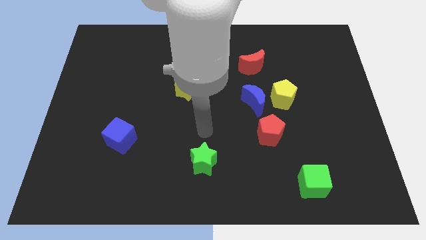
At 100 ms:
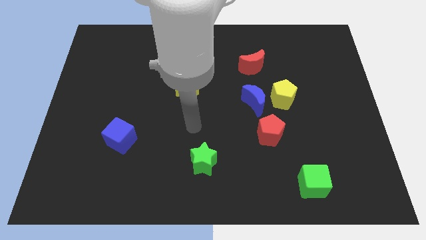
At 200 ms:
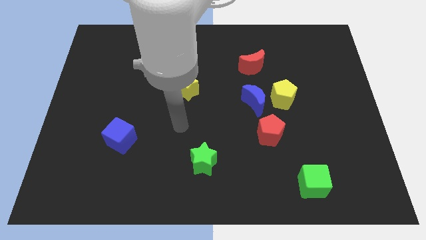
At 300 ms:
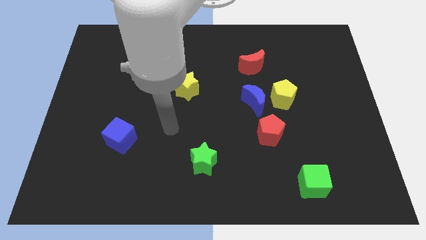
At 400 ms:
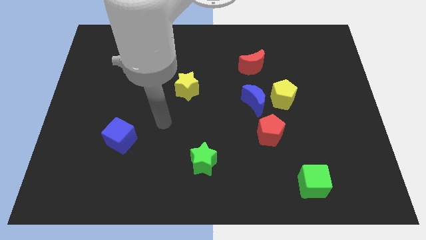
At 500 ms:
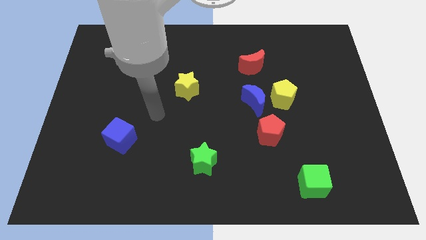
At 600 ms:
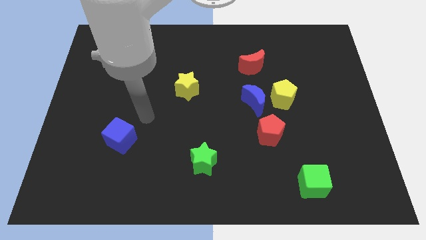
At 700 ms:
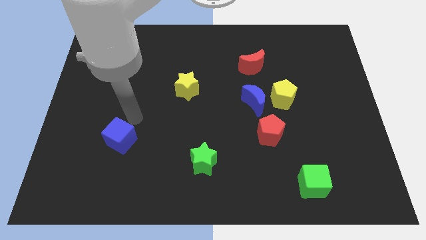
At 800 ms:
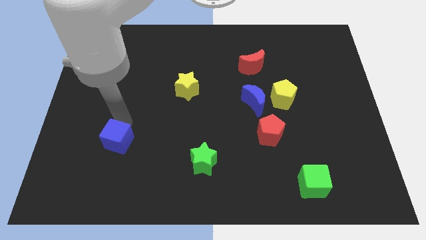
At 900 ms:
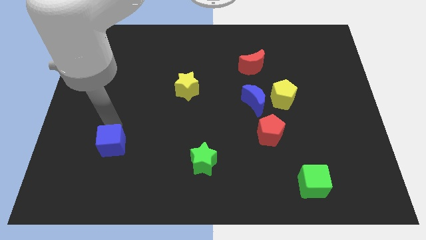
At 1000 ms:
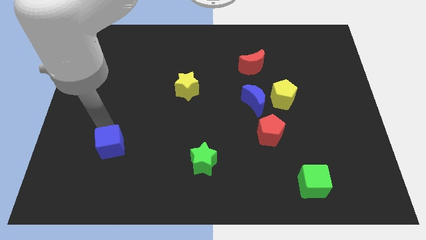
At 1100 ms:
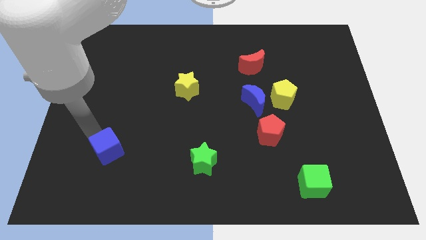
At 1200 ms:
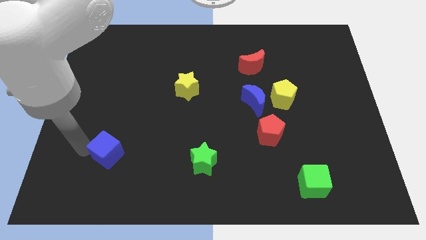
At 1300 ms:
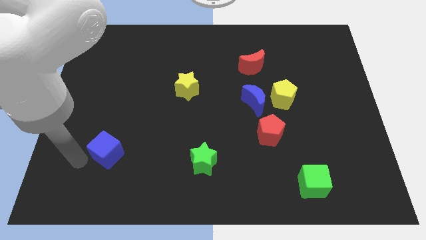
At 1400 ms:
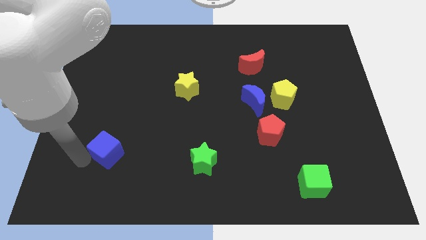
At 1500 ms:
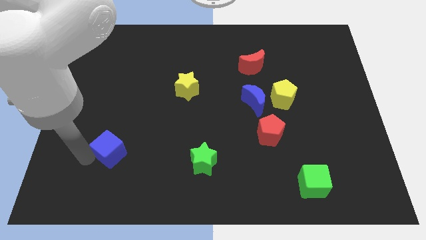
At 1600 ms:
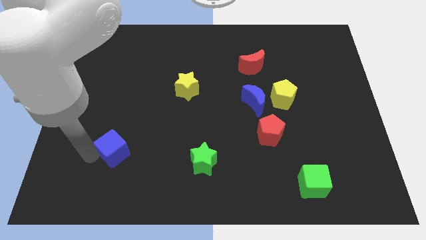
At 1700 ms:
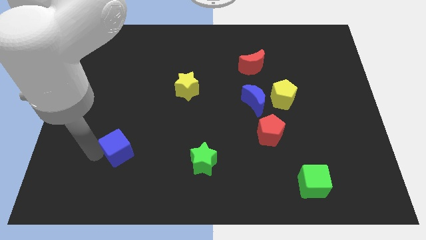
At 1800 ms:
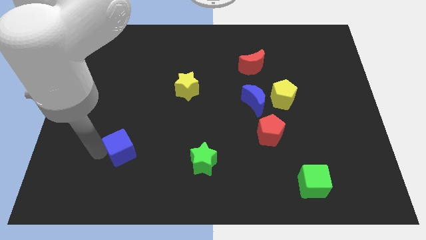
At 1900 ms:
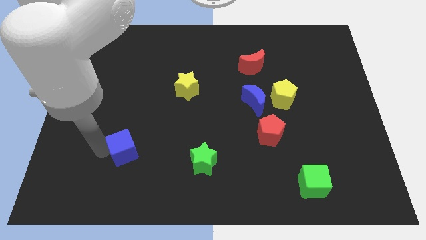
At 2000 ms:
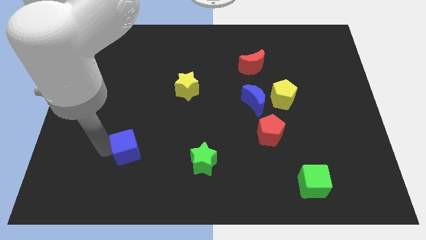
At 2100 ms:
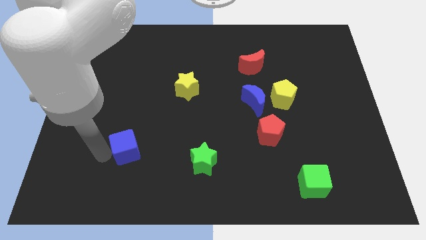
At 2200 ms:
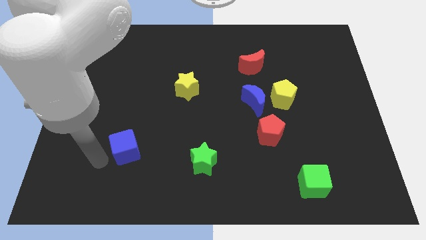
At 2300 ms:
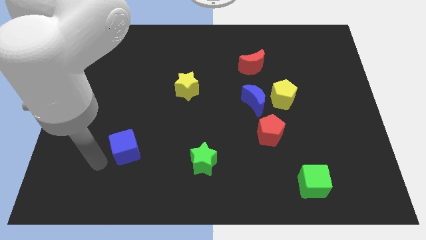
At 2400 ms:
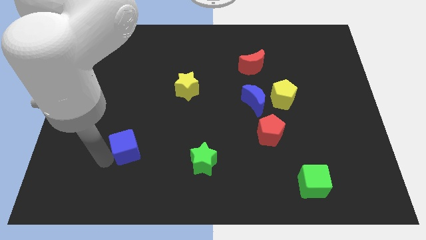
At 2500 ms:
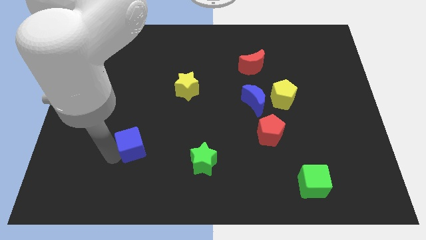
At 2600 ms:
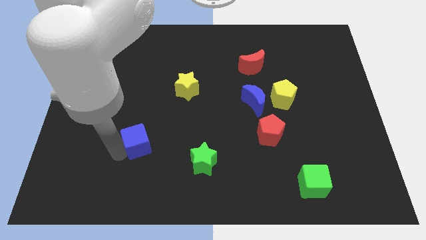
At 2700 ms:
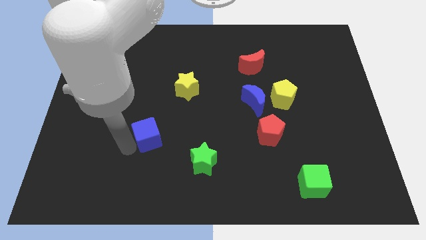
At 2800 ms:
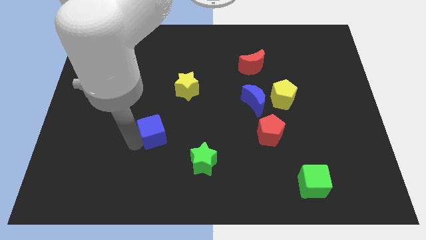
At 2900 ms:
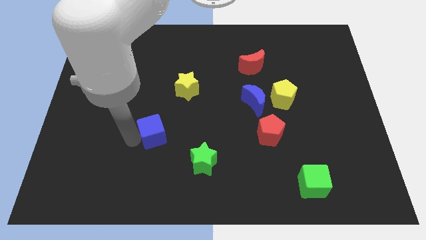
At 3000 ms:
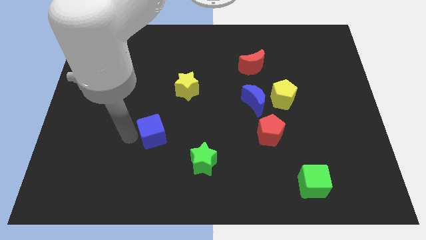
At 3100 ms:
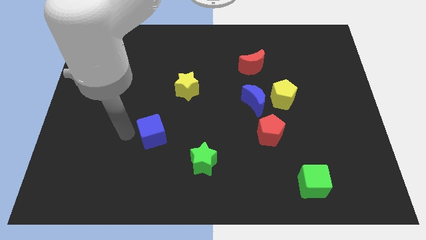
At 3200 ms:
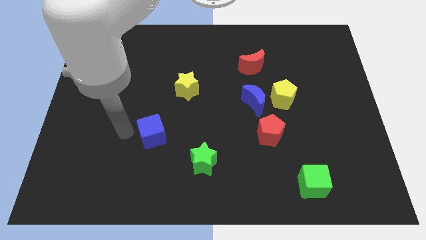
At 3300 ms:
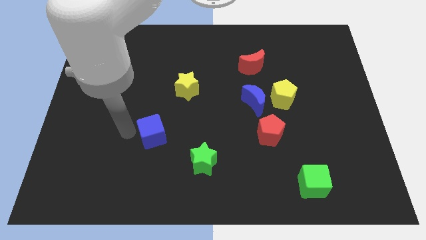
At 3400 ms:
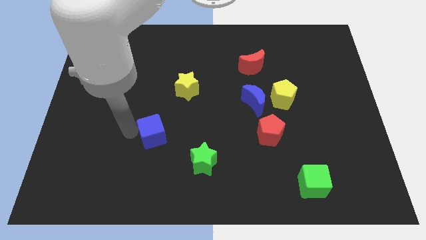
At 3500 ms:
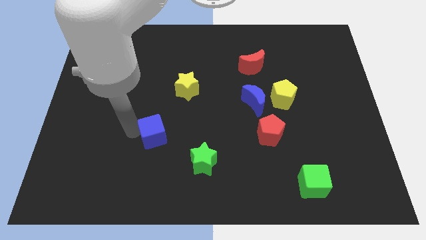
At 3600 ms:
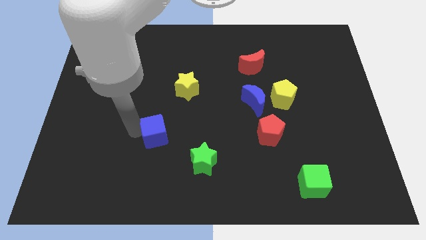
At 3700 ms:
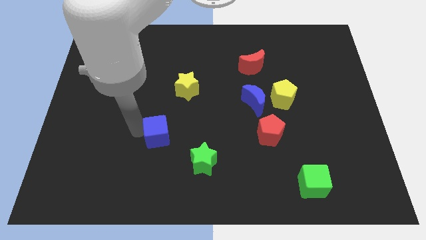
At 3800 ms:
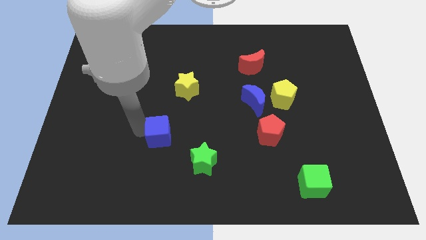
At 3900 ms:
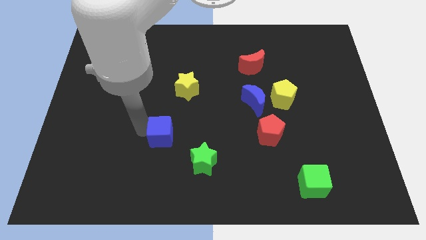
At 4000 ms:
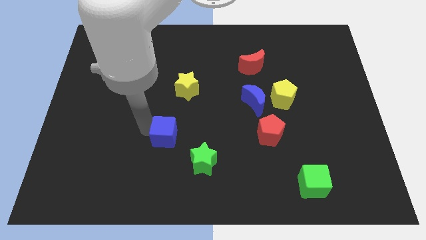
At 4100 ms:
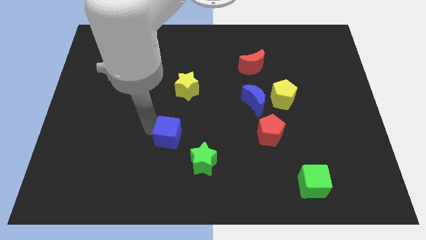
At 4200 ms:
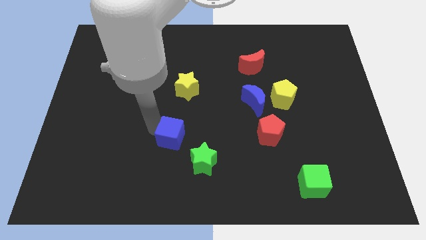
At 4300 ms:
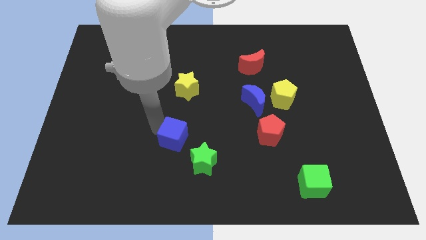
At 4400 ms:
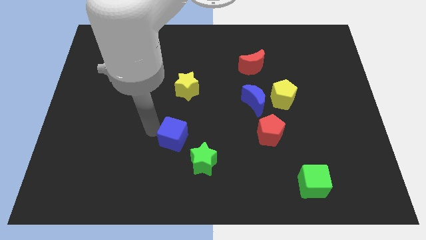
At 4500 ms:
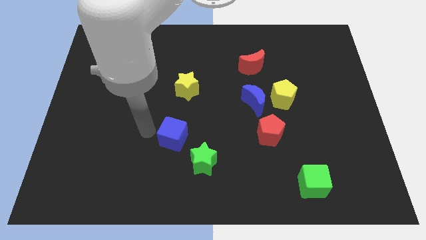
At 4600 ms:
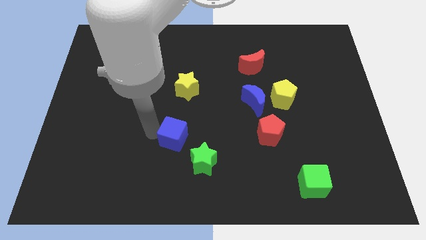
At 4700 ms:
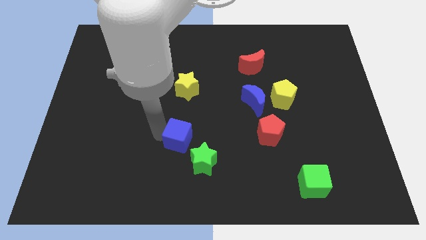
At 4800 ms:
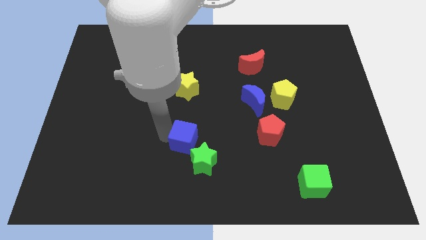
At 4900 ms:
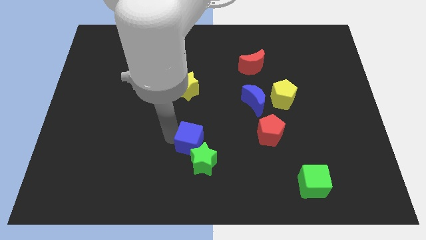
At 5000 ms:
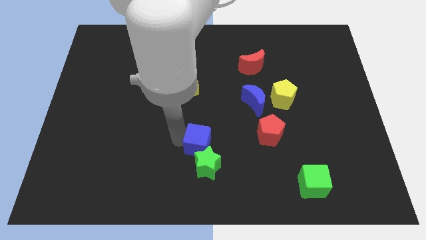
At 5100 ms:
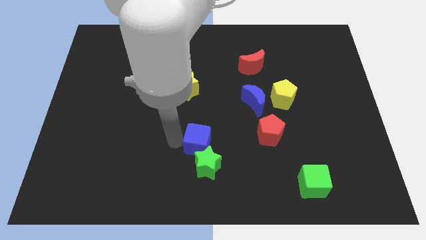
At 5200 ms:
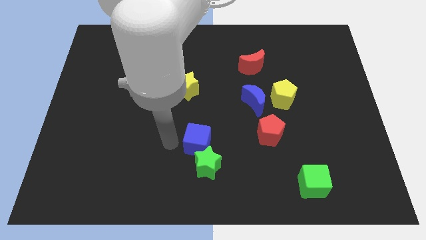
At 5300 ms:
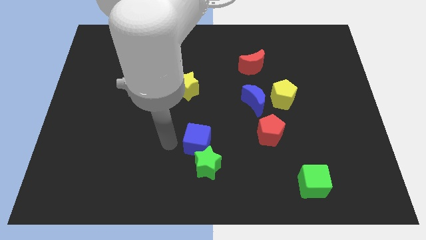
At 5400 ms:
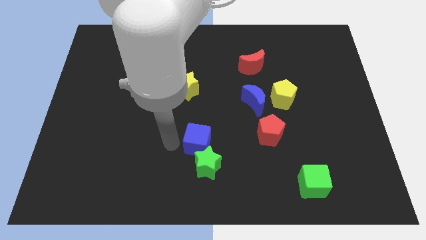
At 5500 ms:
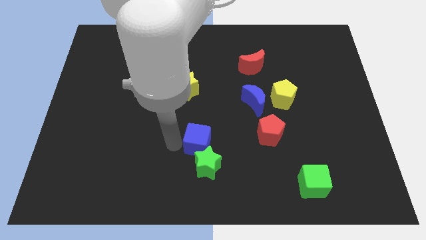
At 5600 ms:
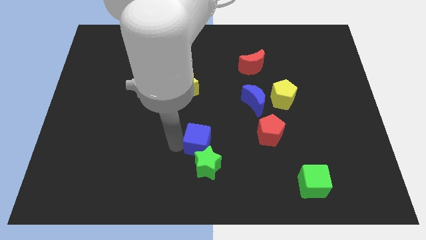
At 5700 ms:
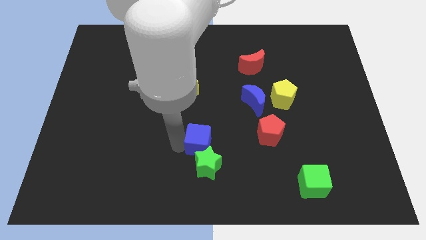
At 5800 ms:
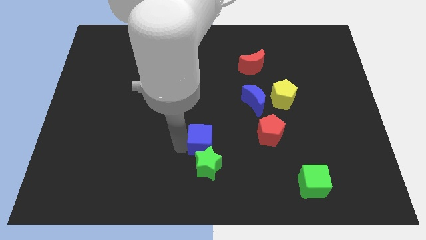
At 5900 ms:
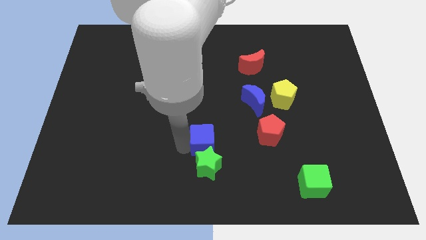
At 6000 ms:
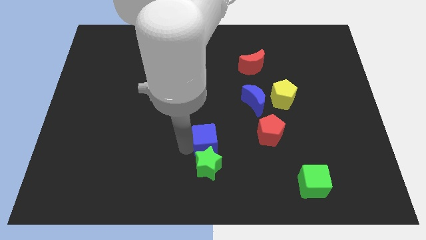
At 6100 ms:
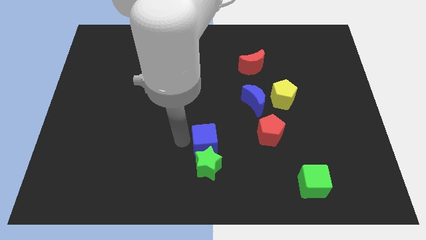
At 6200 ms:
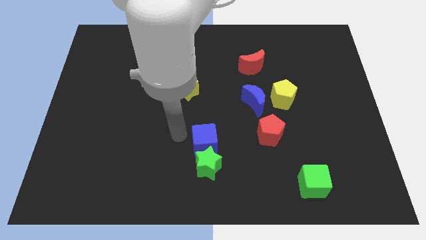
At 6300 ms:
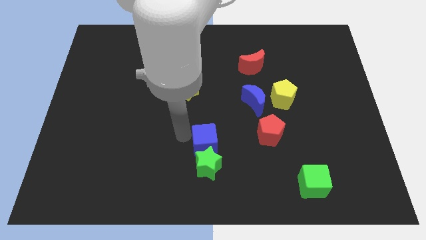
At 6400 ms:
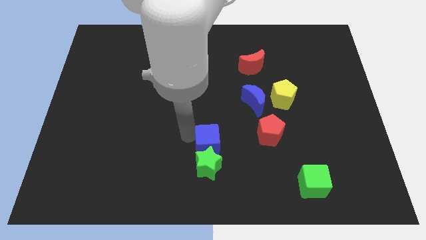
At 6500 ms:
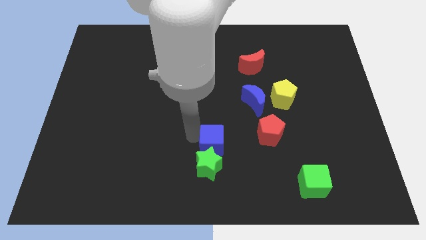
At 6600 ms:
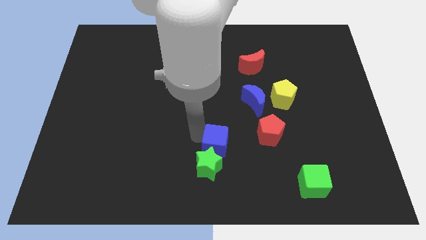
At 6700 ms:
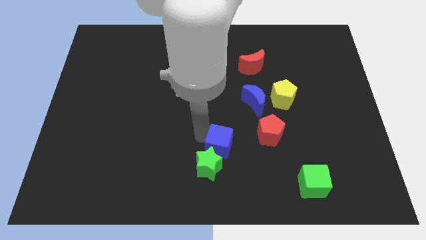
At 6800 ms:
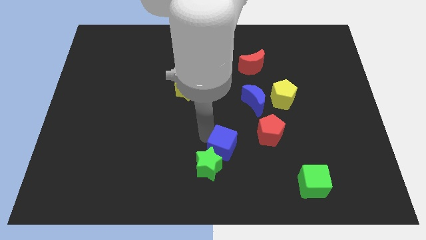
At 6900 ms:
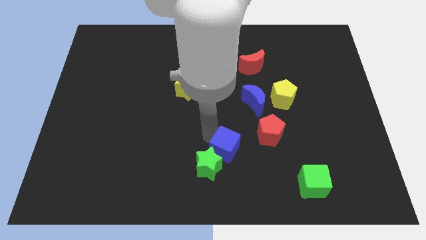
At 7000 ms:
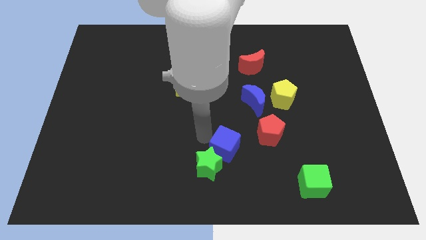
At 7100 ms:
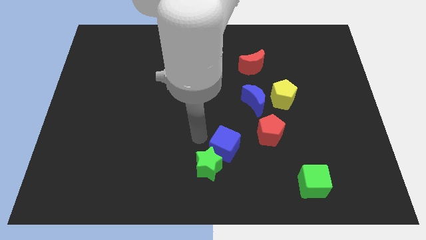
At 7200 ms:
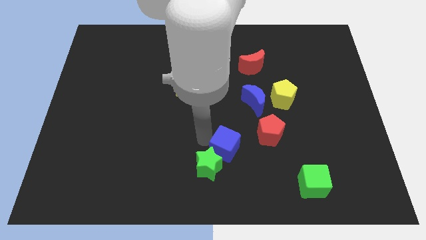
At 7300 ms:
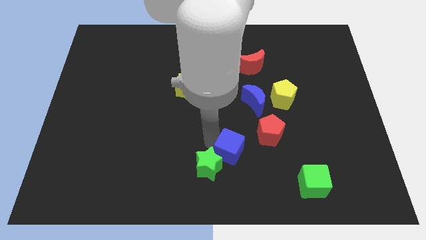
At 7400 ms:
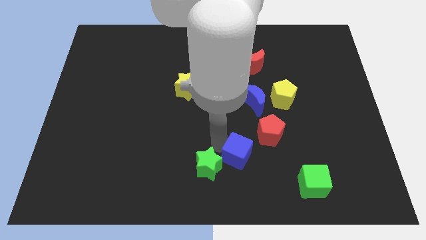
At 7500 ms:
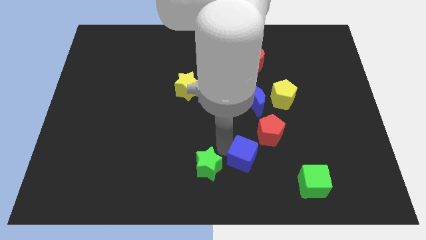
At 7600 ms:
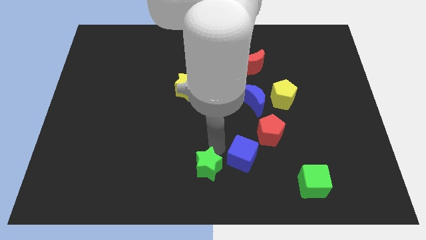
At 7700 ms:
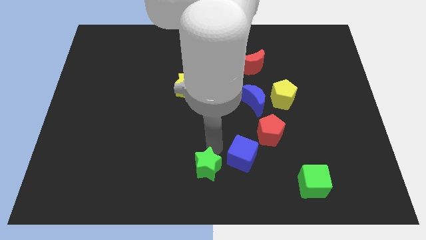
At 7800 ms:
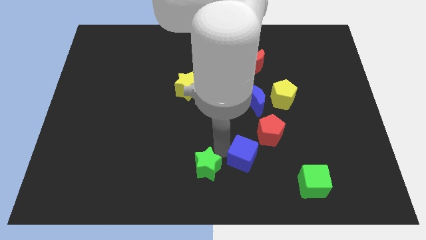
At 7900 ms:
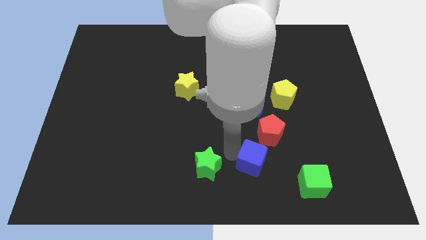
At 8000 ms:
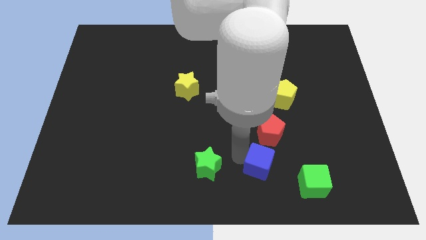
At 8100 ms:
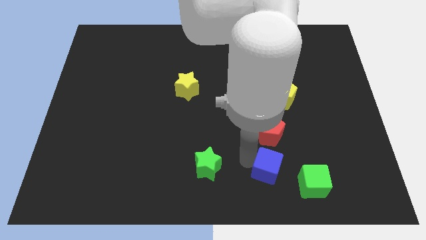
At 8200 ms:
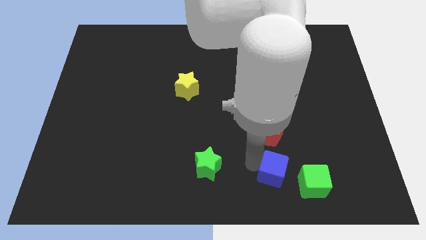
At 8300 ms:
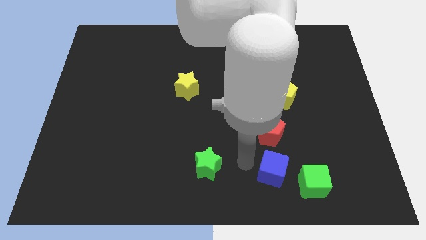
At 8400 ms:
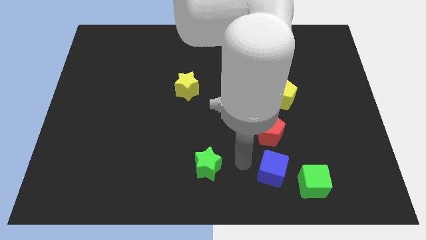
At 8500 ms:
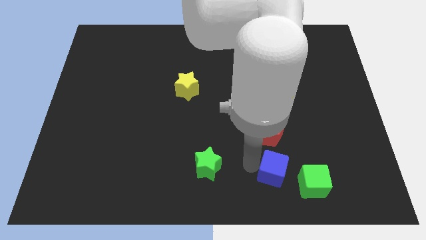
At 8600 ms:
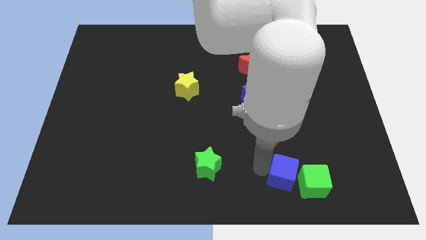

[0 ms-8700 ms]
slide the blue cube close to the green cube
